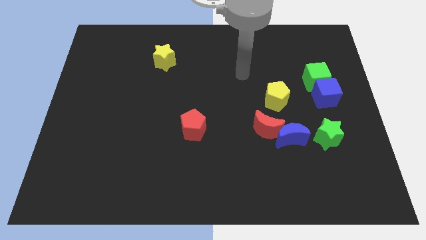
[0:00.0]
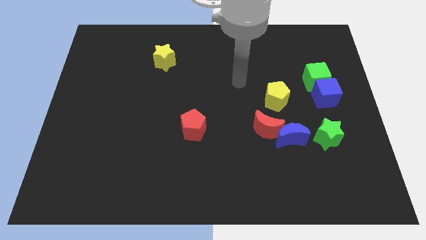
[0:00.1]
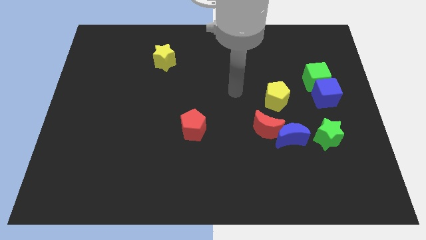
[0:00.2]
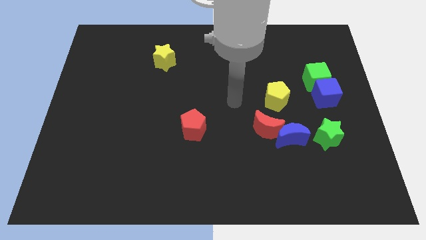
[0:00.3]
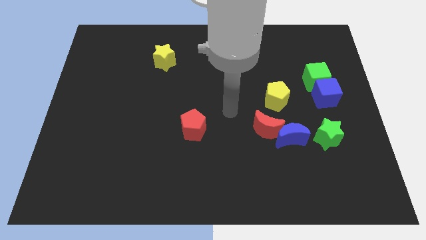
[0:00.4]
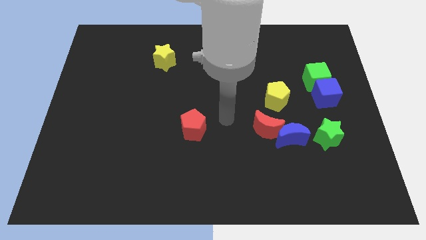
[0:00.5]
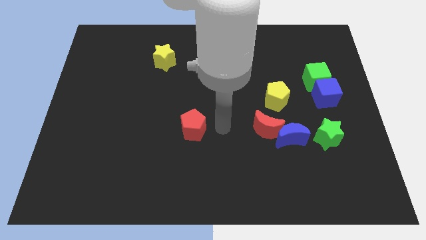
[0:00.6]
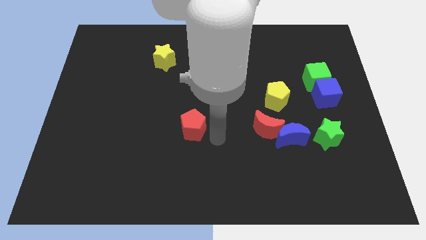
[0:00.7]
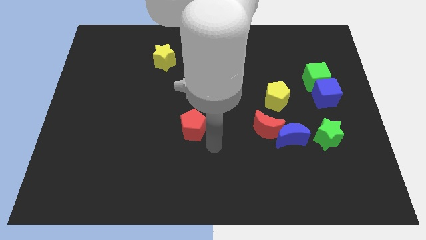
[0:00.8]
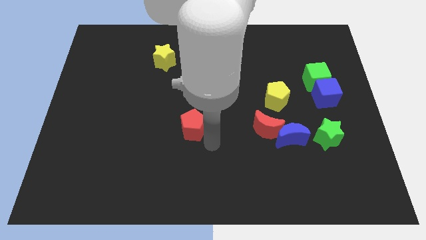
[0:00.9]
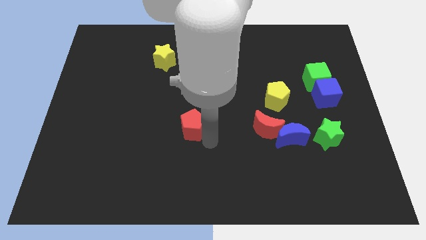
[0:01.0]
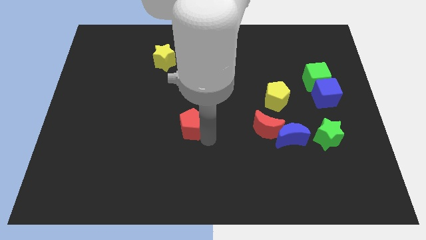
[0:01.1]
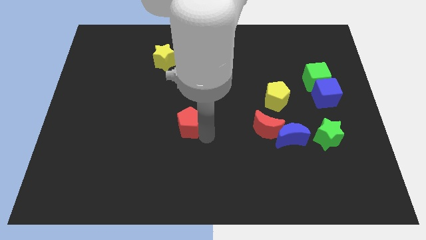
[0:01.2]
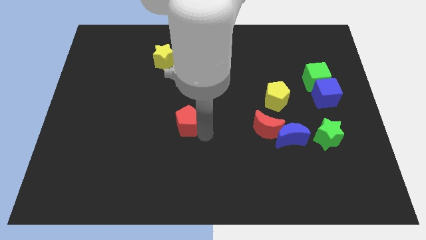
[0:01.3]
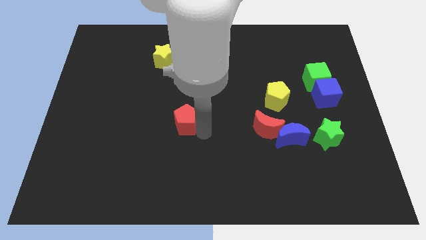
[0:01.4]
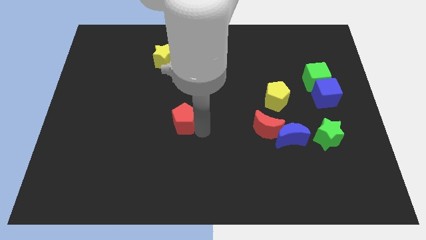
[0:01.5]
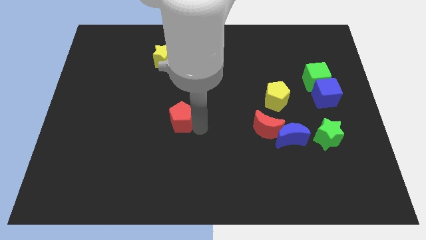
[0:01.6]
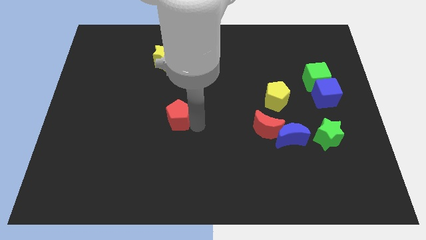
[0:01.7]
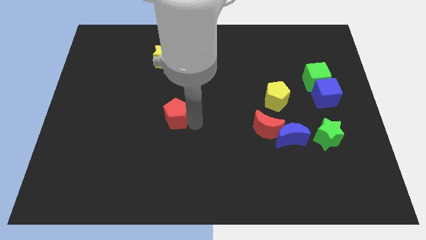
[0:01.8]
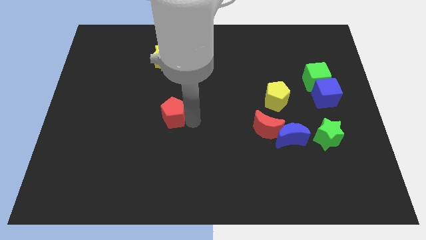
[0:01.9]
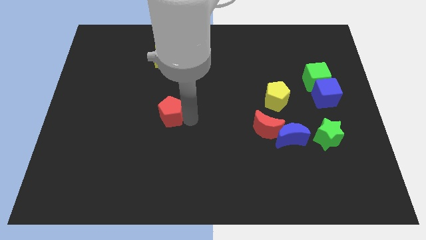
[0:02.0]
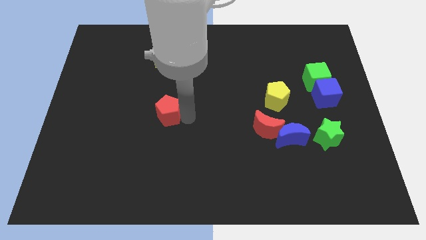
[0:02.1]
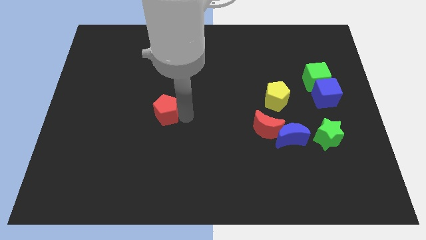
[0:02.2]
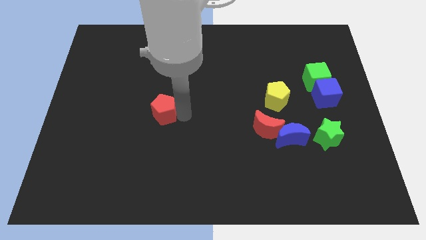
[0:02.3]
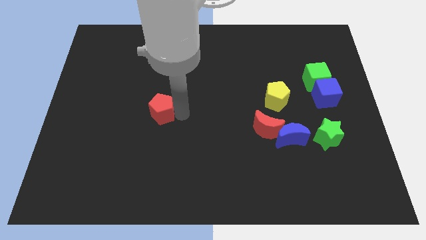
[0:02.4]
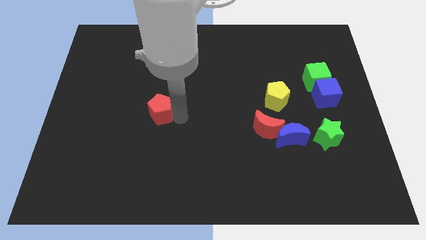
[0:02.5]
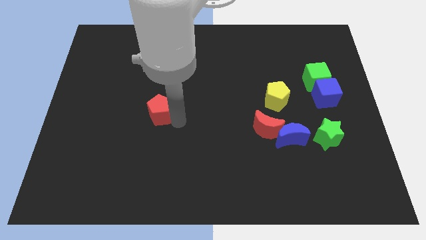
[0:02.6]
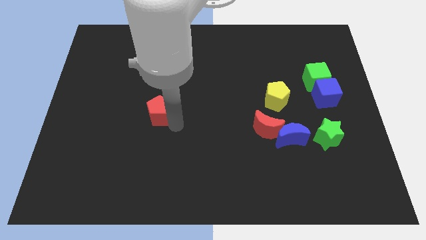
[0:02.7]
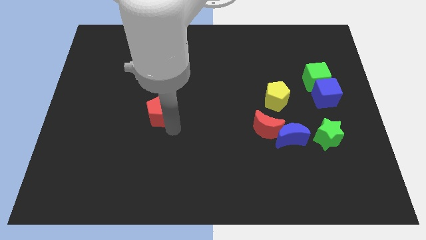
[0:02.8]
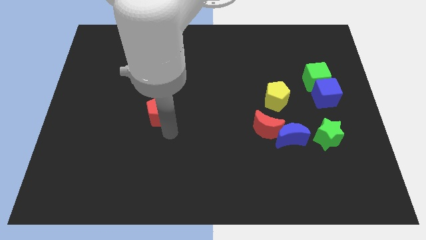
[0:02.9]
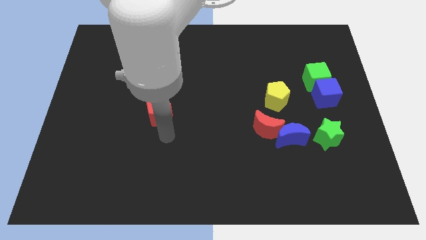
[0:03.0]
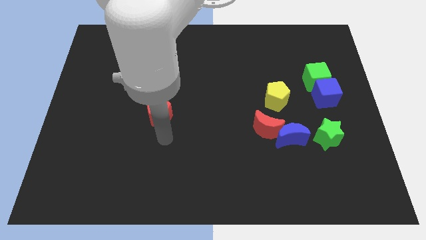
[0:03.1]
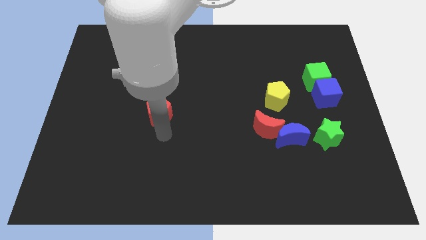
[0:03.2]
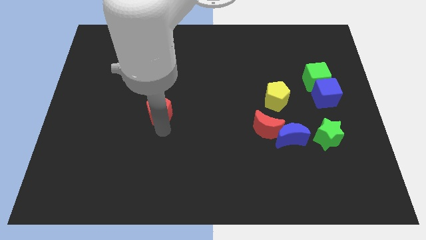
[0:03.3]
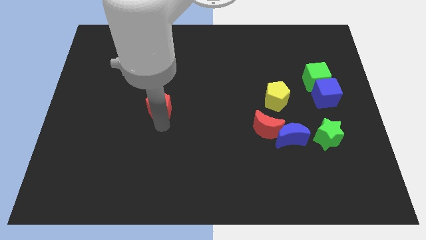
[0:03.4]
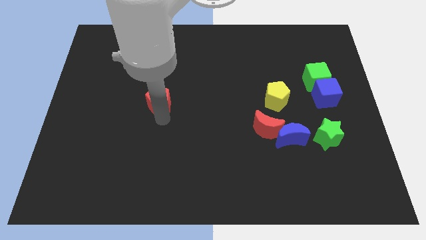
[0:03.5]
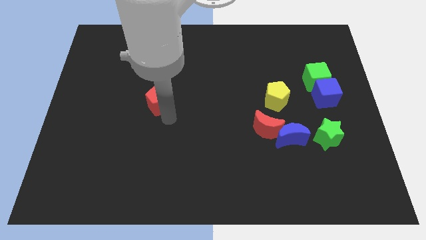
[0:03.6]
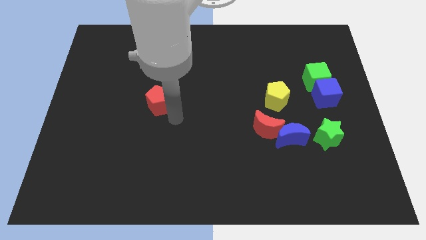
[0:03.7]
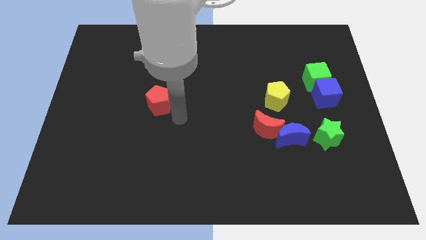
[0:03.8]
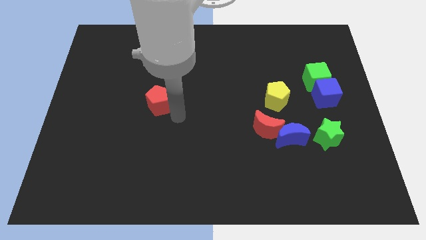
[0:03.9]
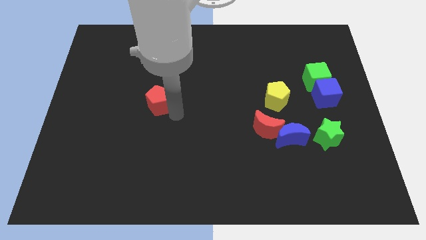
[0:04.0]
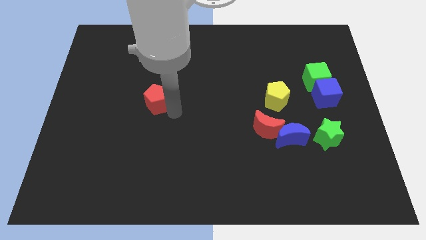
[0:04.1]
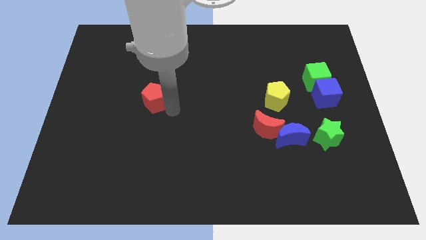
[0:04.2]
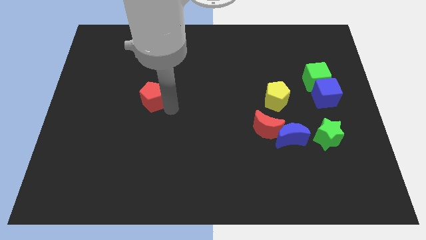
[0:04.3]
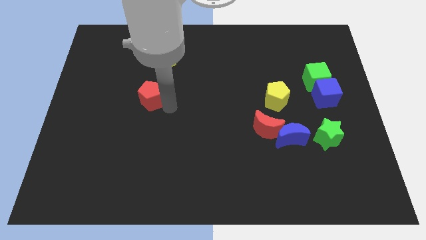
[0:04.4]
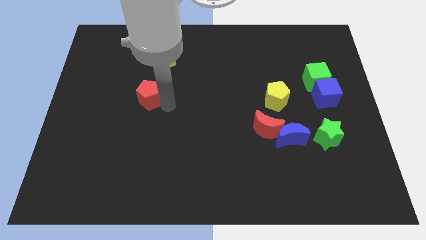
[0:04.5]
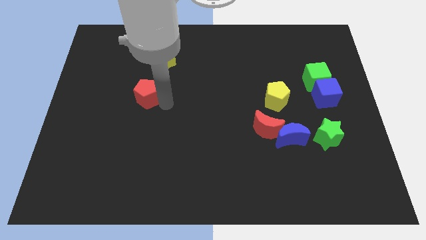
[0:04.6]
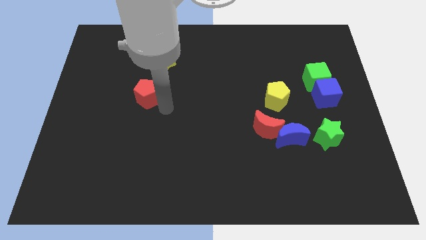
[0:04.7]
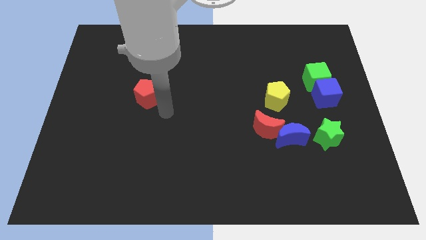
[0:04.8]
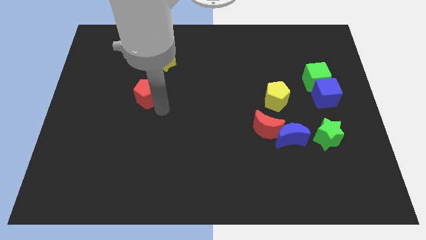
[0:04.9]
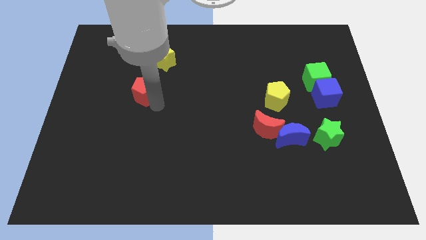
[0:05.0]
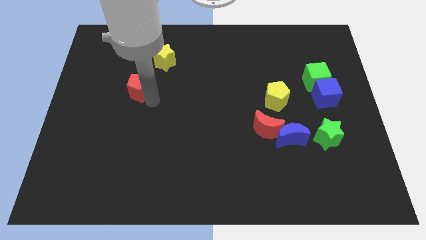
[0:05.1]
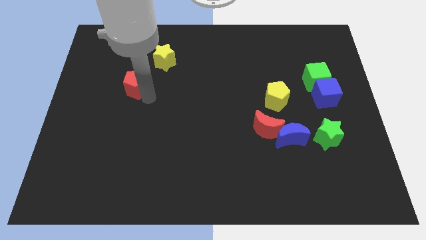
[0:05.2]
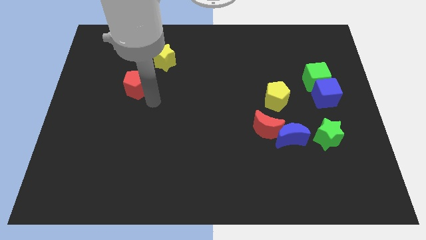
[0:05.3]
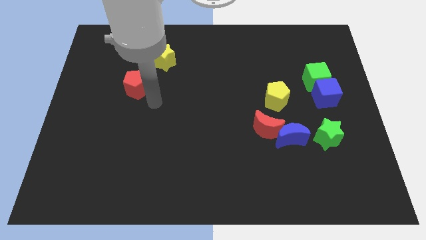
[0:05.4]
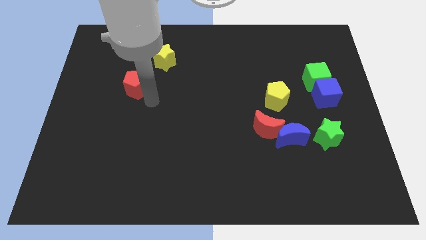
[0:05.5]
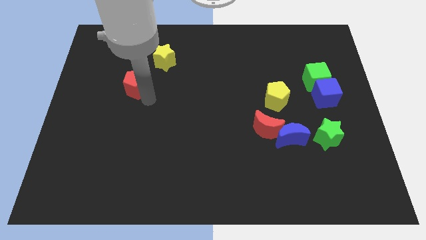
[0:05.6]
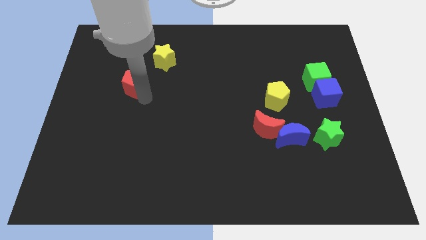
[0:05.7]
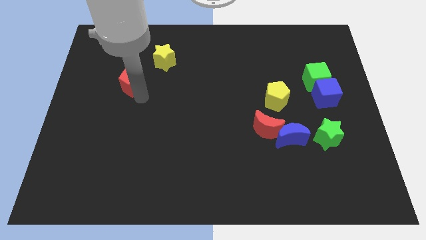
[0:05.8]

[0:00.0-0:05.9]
slide the red pentagon up and left

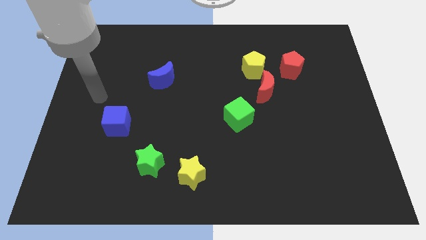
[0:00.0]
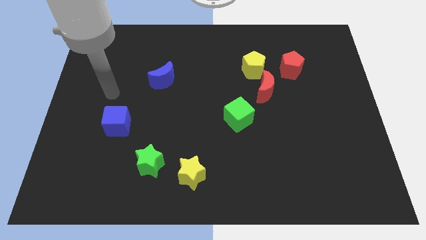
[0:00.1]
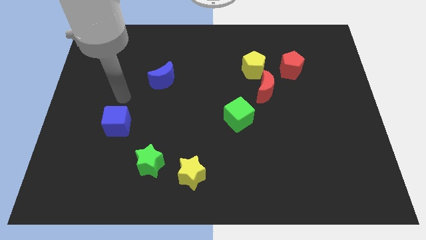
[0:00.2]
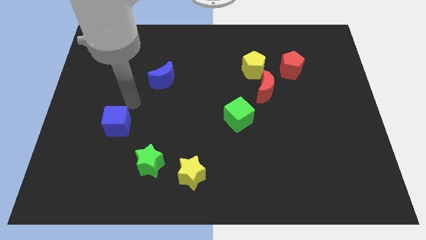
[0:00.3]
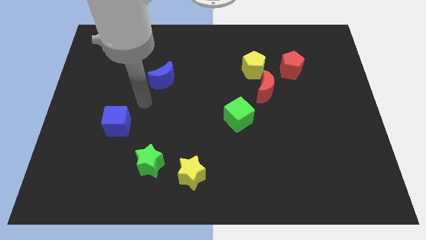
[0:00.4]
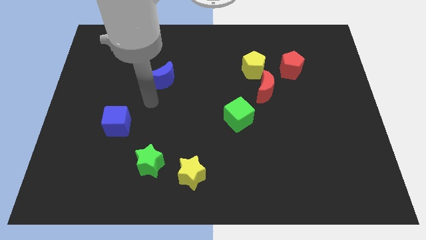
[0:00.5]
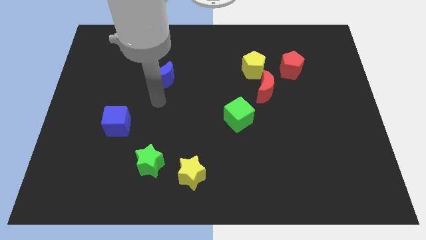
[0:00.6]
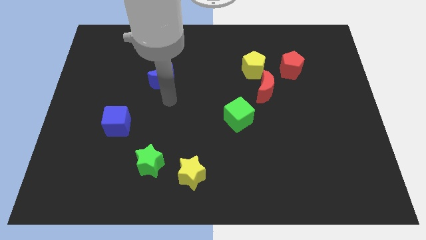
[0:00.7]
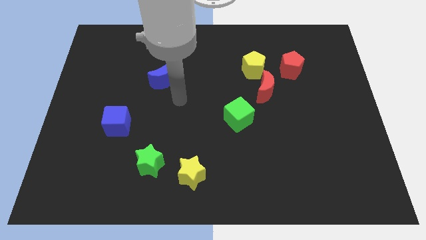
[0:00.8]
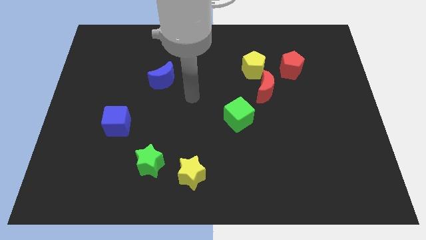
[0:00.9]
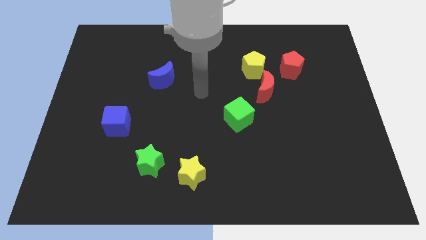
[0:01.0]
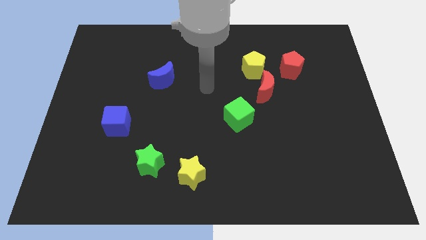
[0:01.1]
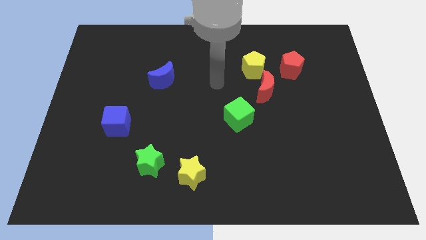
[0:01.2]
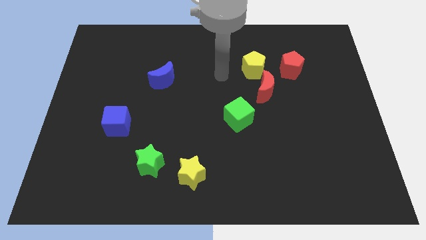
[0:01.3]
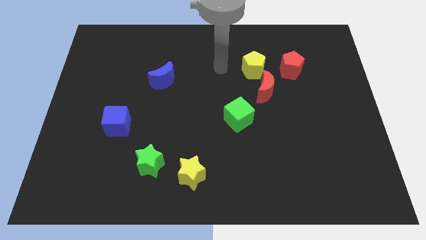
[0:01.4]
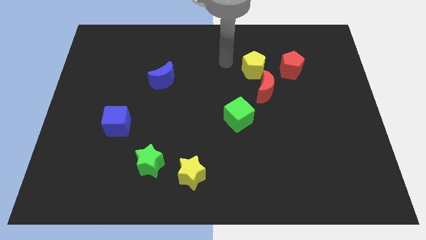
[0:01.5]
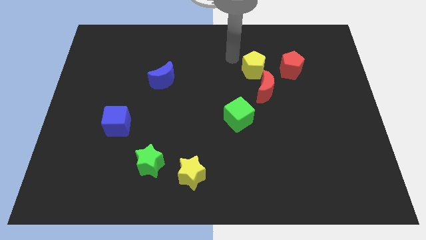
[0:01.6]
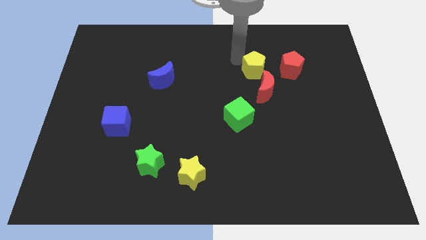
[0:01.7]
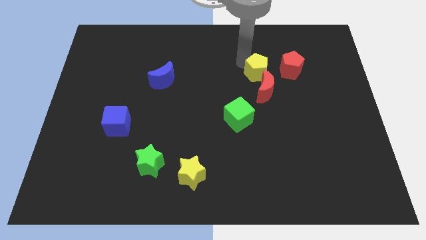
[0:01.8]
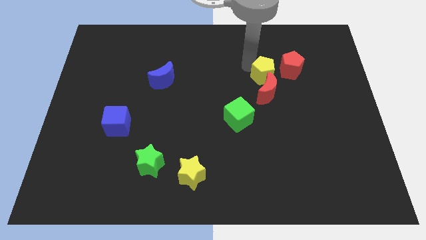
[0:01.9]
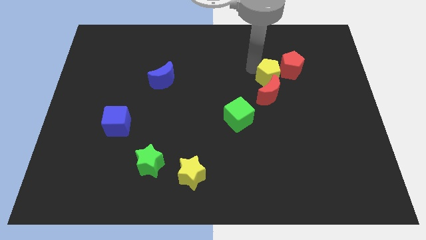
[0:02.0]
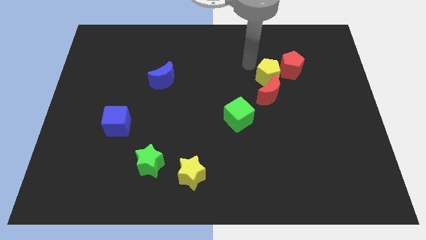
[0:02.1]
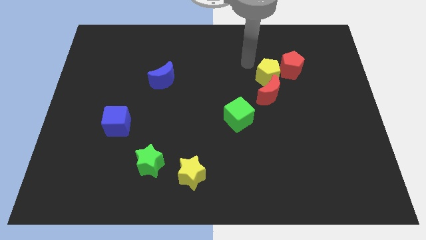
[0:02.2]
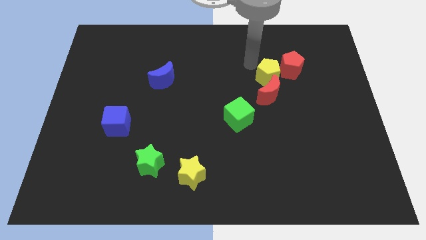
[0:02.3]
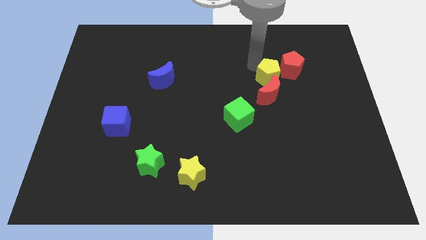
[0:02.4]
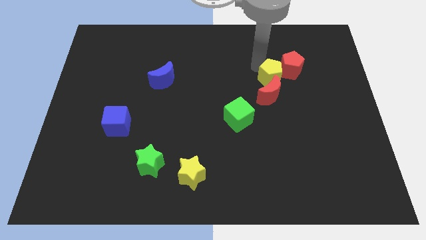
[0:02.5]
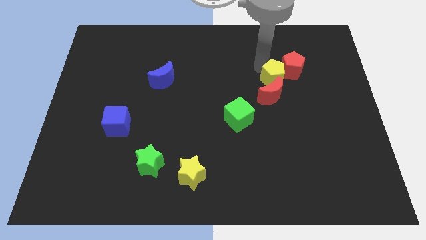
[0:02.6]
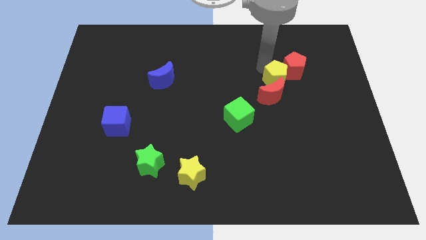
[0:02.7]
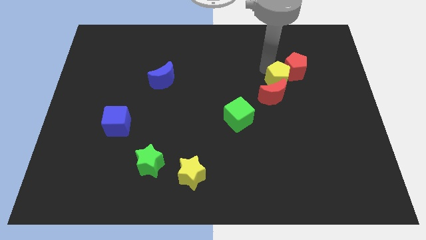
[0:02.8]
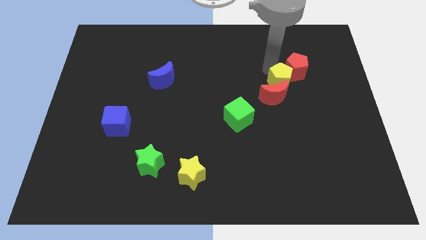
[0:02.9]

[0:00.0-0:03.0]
push the yellow pentagon somewhat down and then to the right
